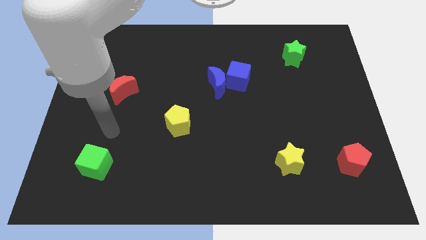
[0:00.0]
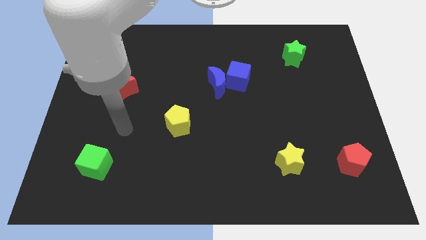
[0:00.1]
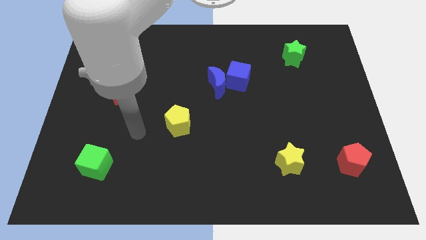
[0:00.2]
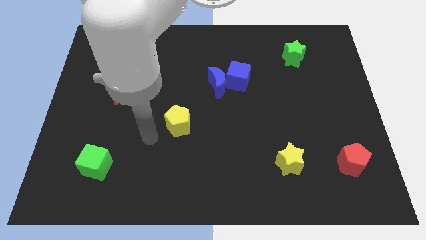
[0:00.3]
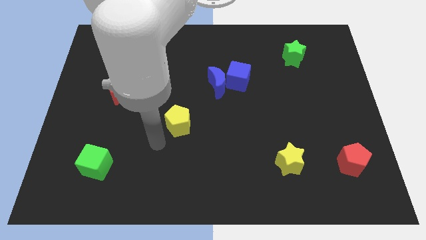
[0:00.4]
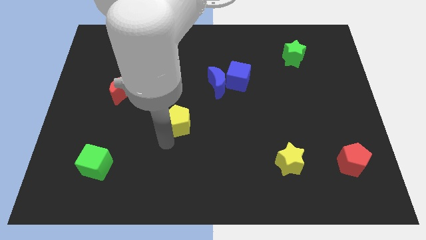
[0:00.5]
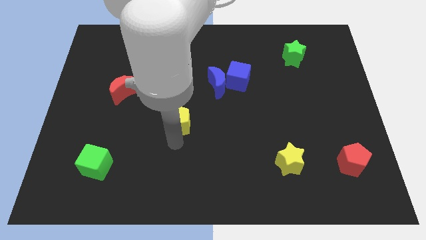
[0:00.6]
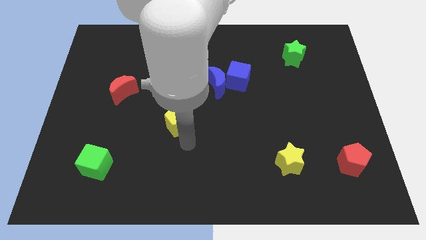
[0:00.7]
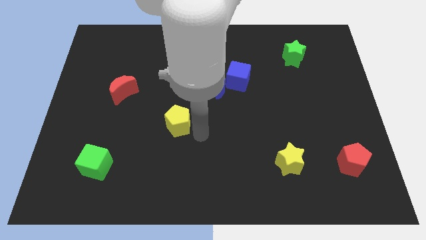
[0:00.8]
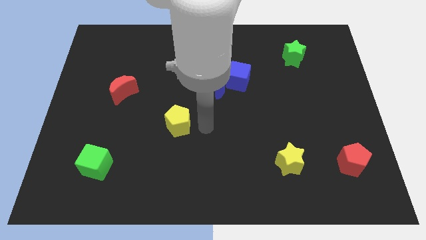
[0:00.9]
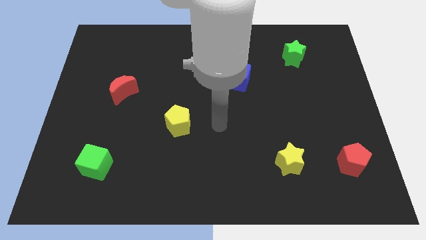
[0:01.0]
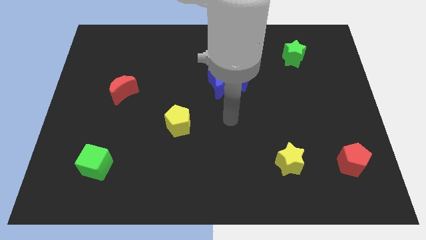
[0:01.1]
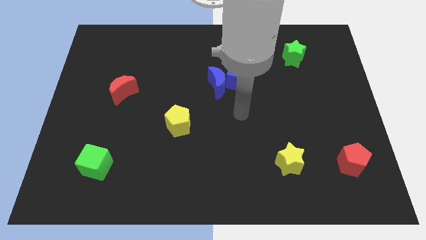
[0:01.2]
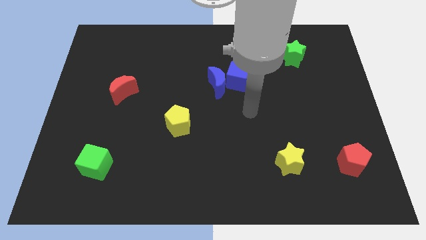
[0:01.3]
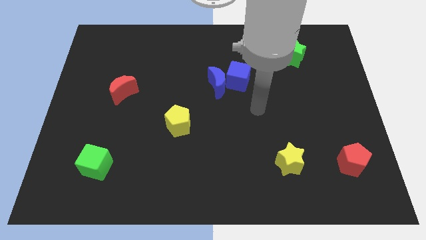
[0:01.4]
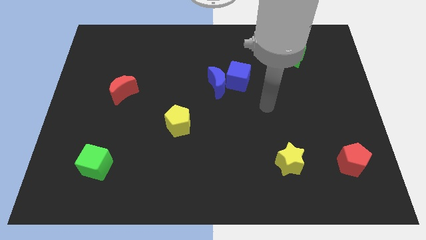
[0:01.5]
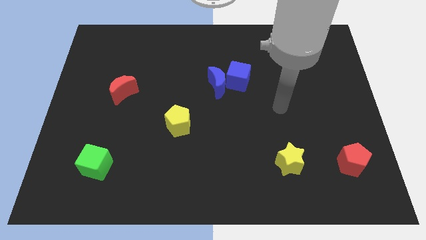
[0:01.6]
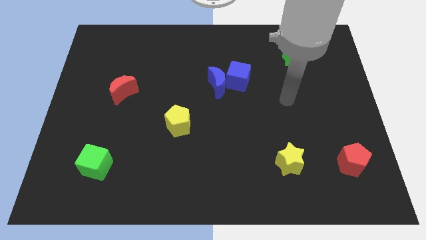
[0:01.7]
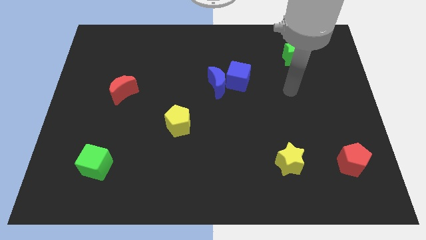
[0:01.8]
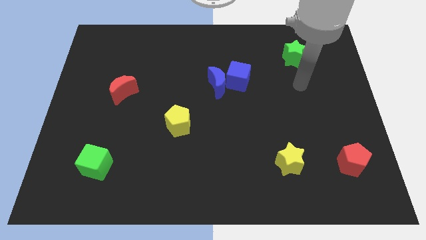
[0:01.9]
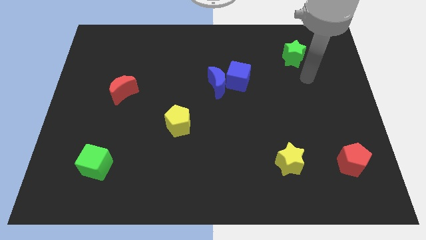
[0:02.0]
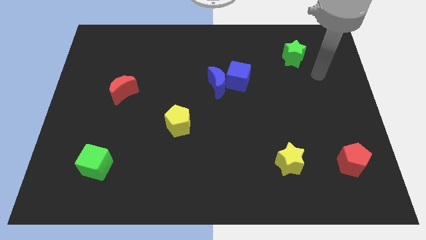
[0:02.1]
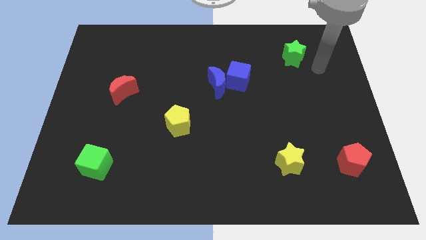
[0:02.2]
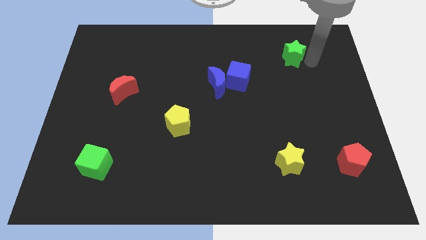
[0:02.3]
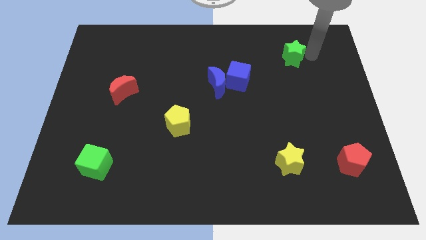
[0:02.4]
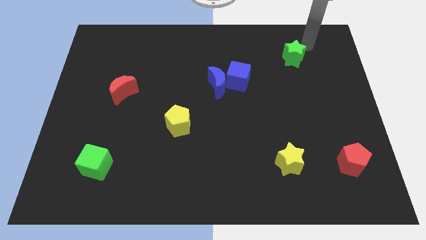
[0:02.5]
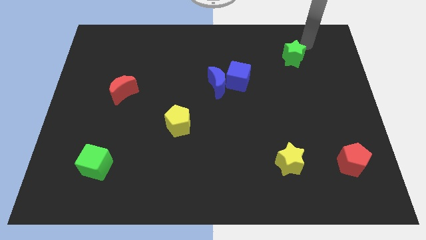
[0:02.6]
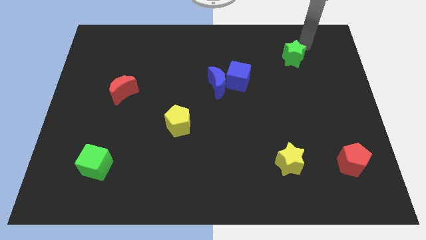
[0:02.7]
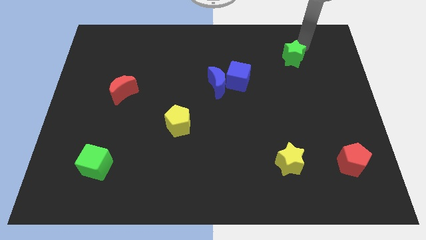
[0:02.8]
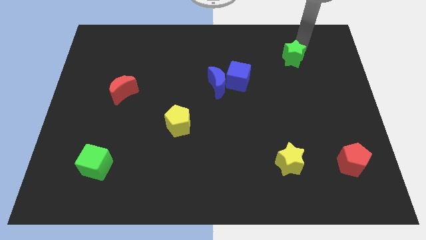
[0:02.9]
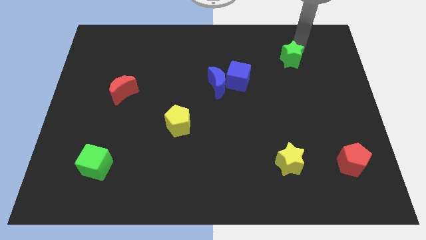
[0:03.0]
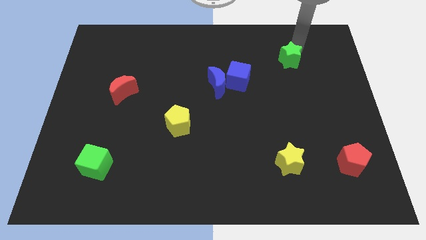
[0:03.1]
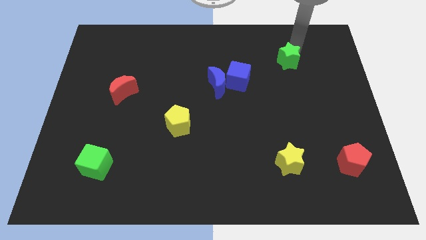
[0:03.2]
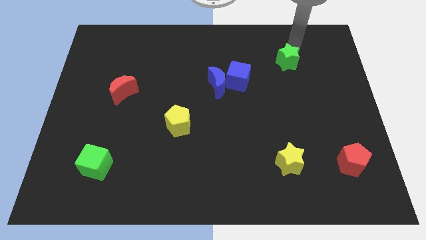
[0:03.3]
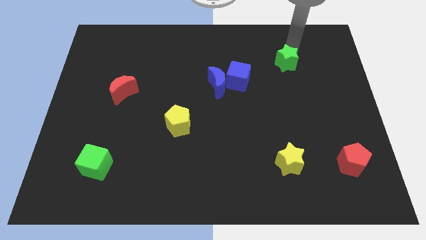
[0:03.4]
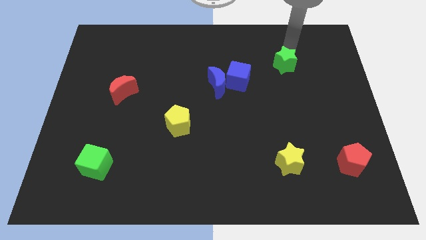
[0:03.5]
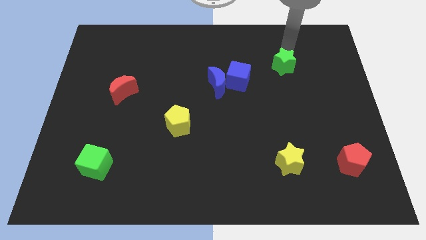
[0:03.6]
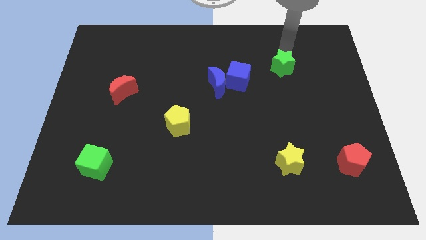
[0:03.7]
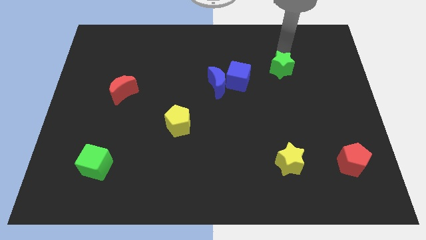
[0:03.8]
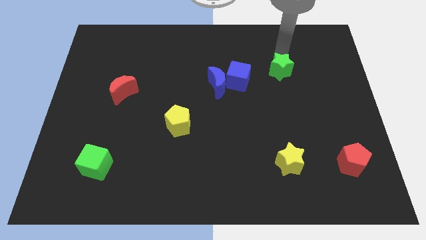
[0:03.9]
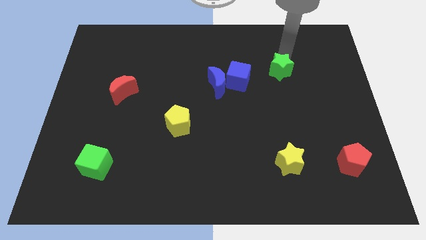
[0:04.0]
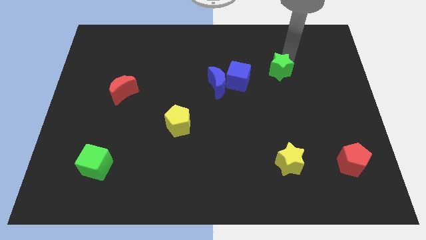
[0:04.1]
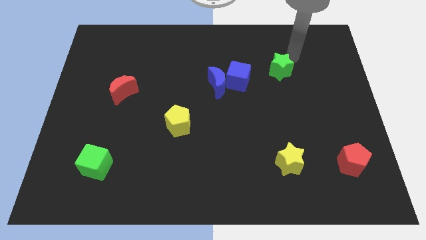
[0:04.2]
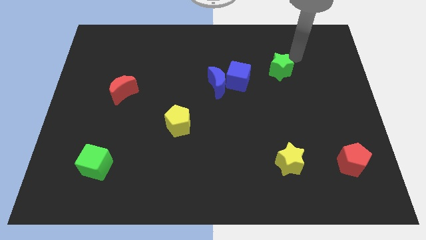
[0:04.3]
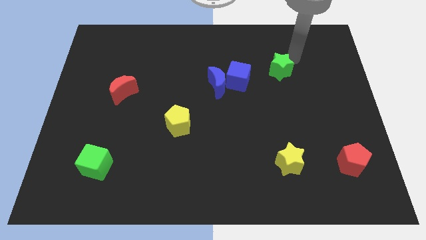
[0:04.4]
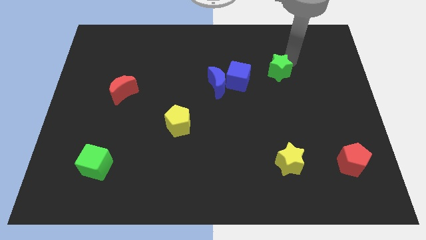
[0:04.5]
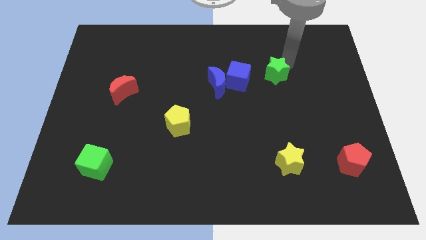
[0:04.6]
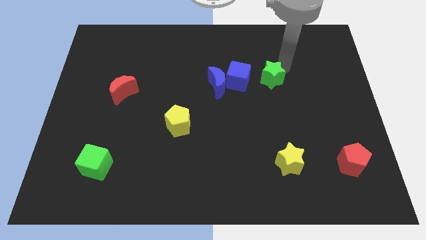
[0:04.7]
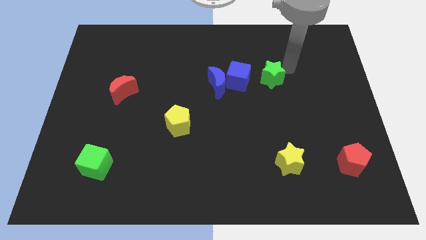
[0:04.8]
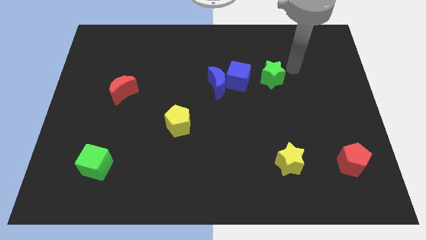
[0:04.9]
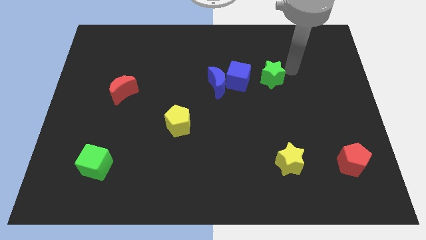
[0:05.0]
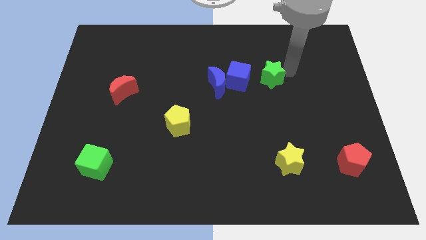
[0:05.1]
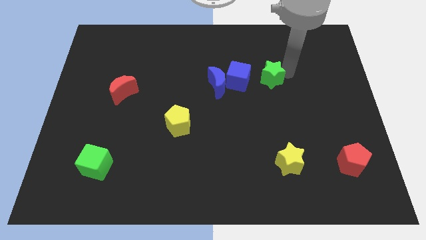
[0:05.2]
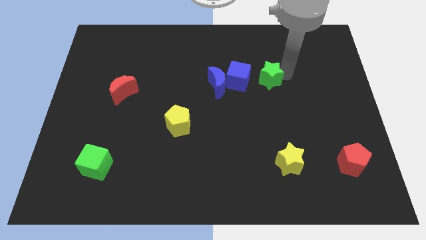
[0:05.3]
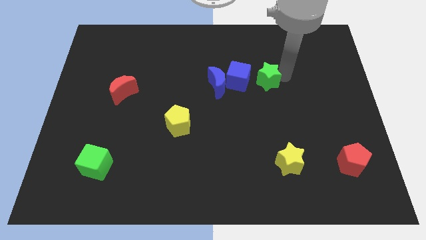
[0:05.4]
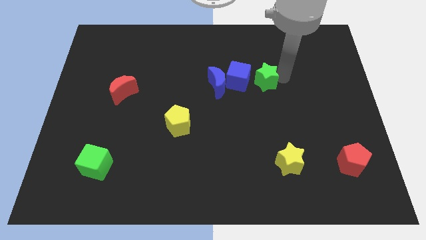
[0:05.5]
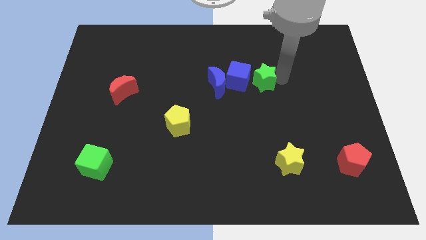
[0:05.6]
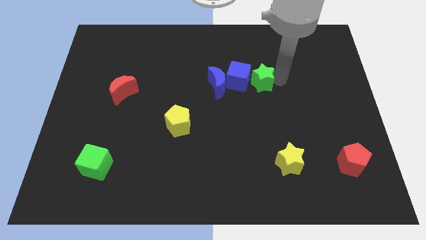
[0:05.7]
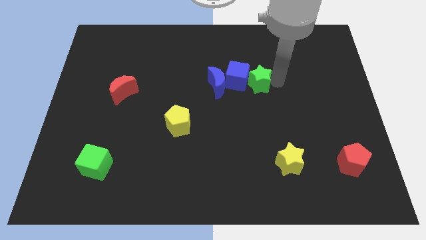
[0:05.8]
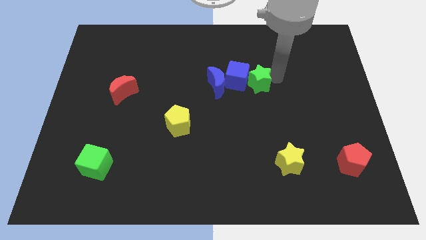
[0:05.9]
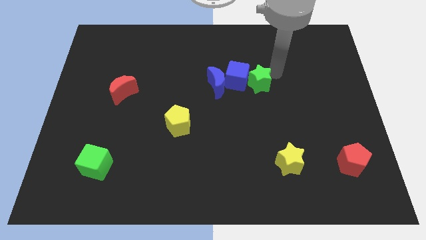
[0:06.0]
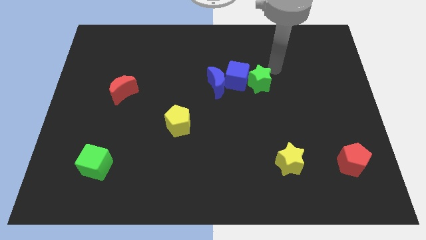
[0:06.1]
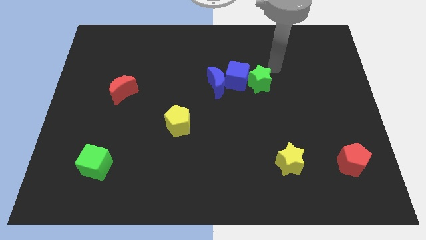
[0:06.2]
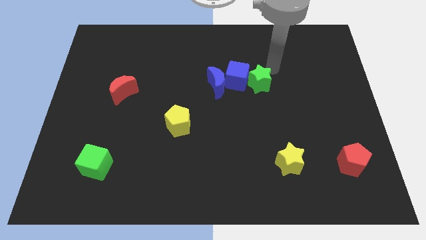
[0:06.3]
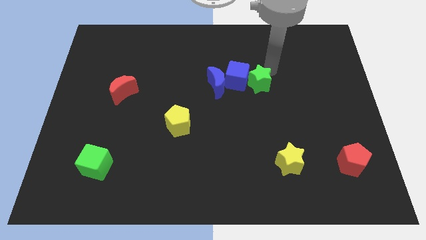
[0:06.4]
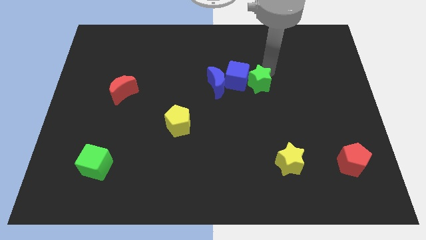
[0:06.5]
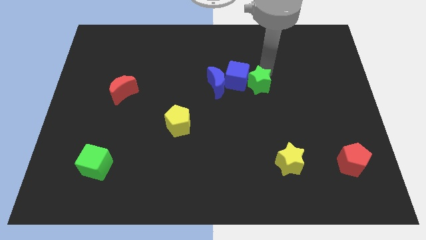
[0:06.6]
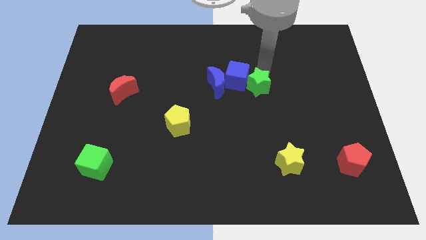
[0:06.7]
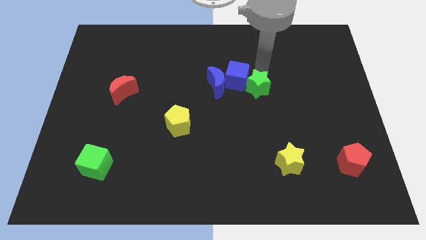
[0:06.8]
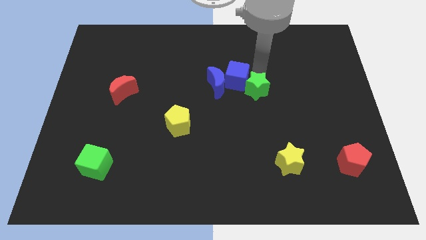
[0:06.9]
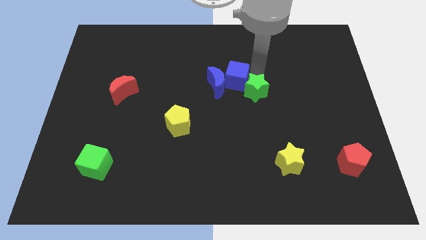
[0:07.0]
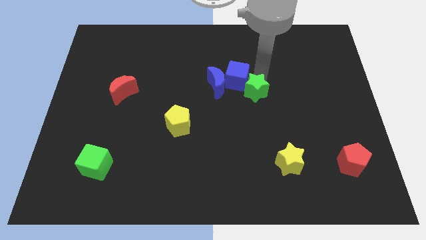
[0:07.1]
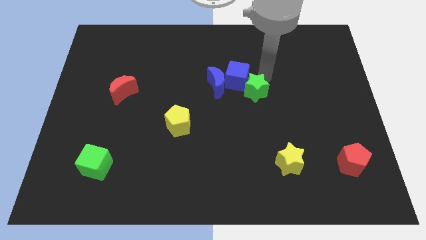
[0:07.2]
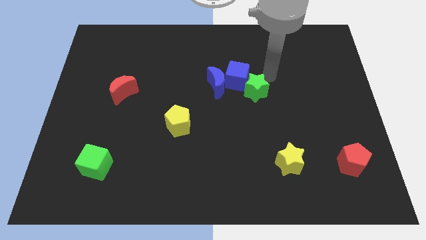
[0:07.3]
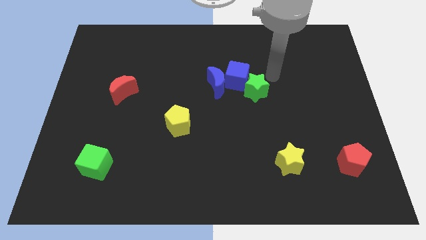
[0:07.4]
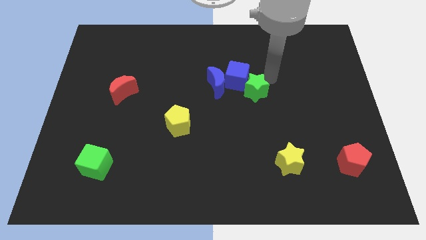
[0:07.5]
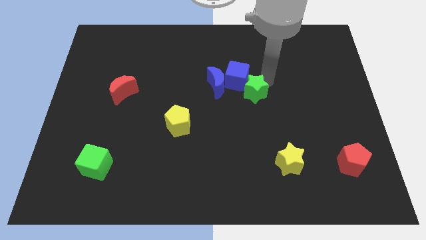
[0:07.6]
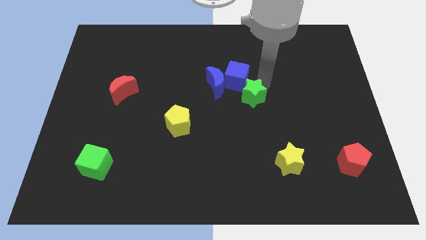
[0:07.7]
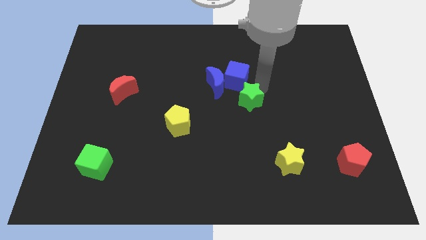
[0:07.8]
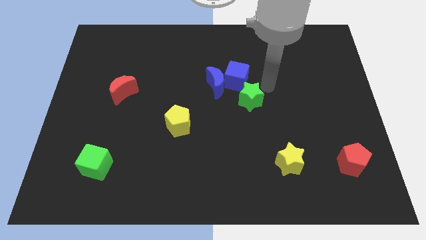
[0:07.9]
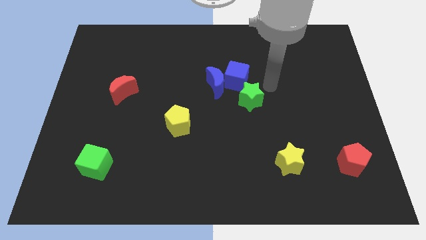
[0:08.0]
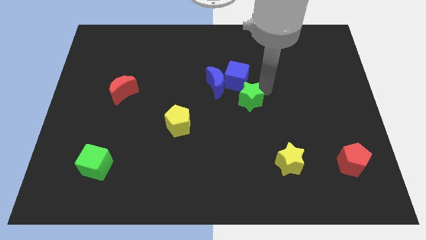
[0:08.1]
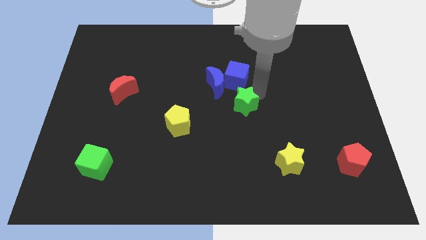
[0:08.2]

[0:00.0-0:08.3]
push the green star downwards and to the left diagonally

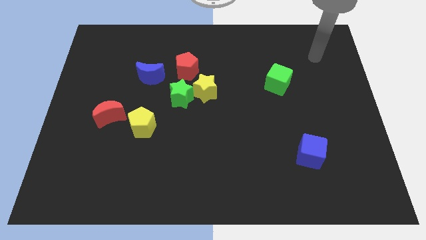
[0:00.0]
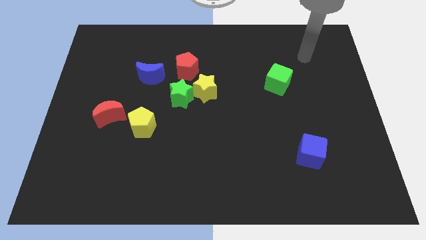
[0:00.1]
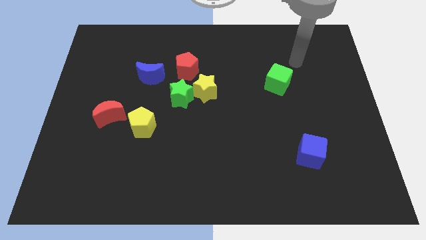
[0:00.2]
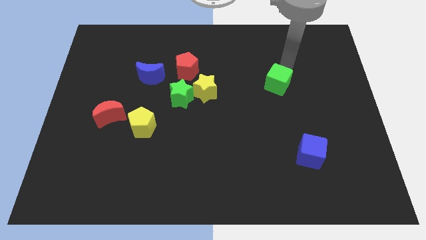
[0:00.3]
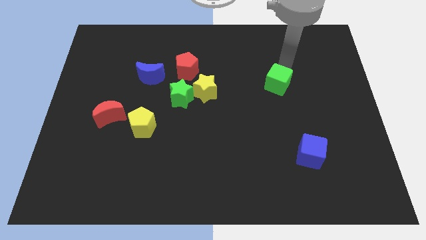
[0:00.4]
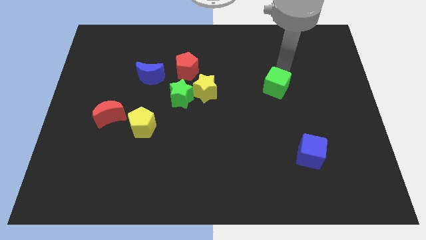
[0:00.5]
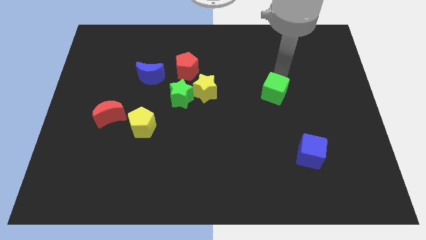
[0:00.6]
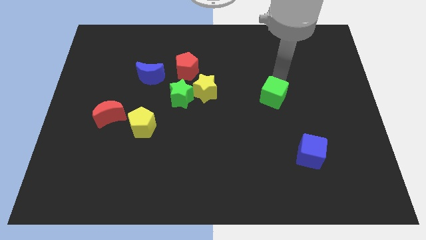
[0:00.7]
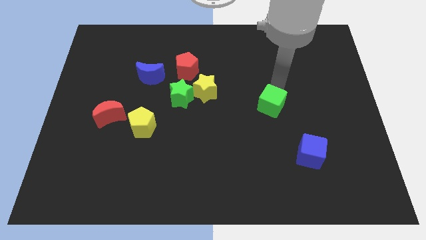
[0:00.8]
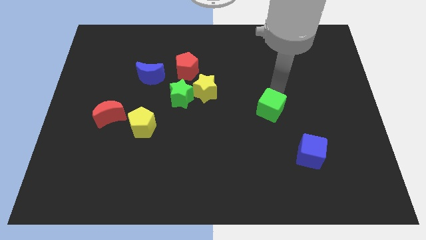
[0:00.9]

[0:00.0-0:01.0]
move the green cube a little diagonally downwards and left
